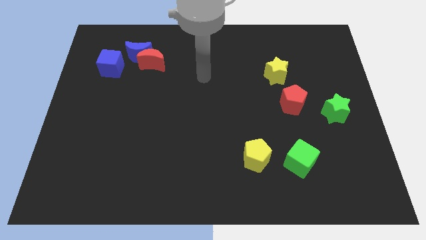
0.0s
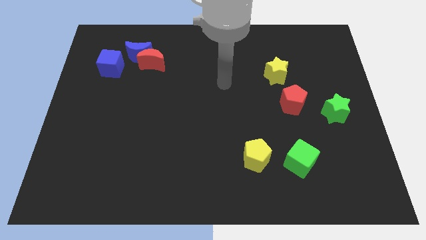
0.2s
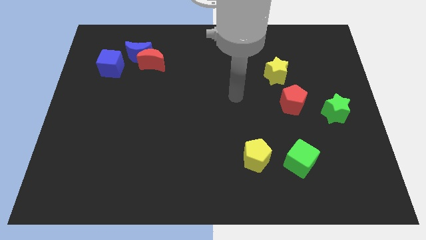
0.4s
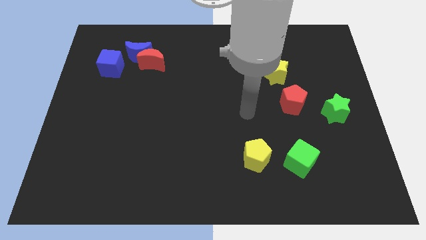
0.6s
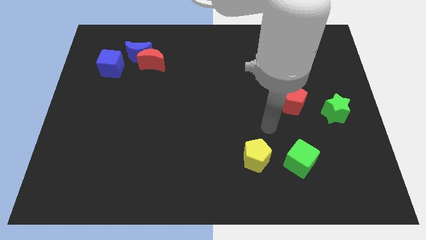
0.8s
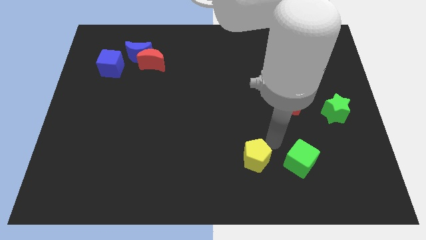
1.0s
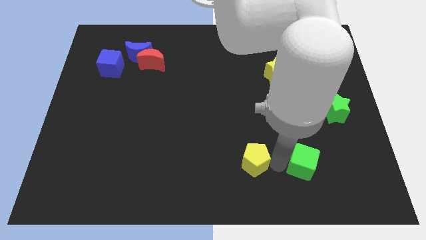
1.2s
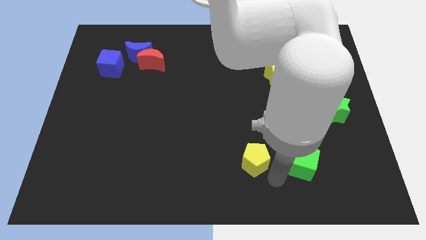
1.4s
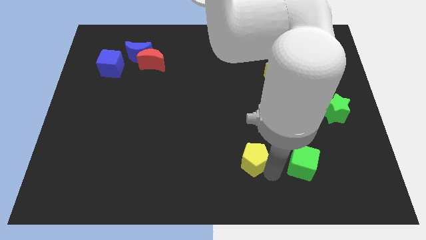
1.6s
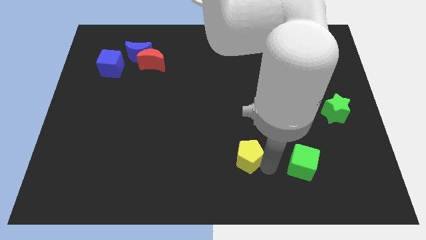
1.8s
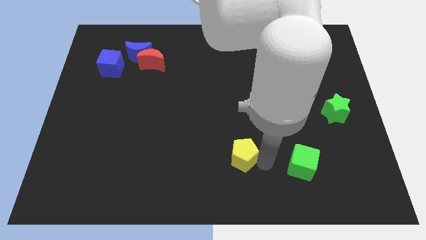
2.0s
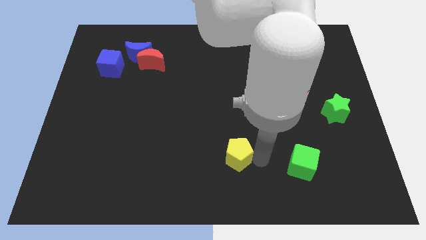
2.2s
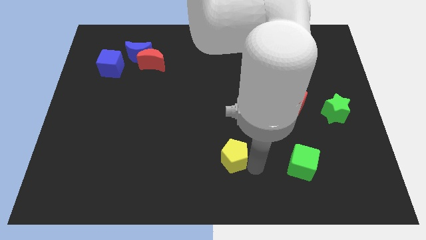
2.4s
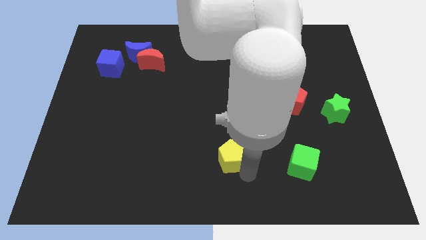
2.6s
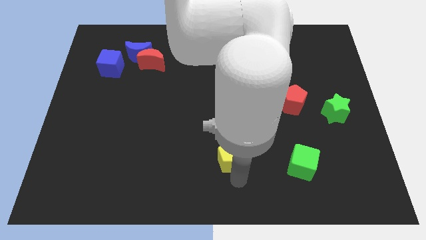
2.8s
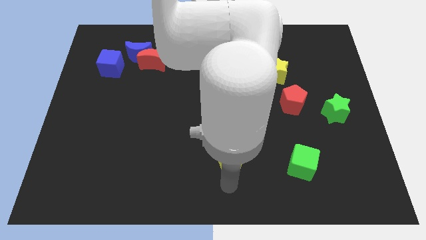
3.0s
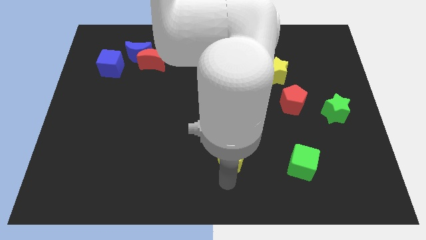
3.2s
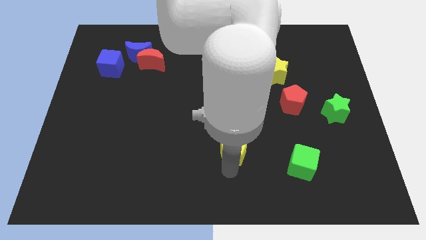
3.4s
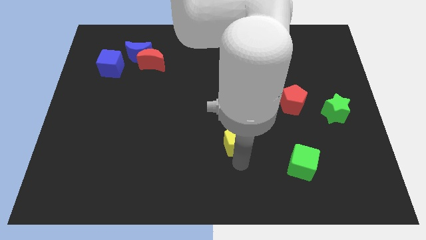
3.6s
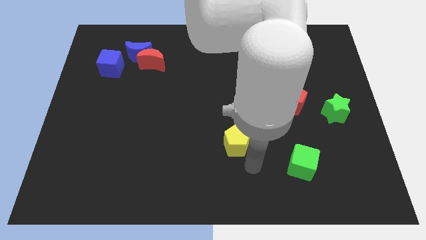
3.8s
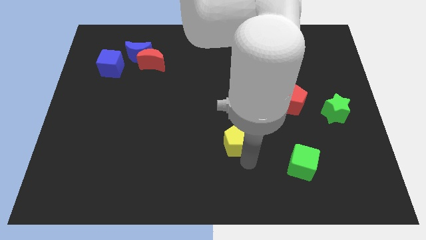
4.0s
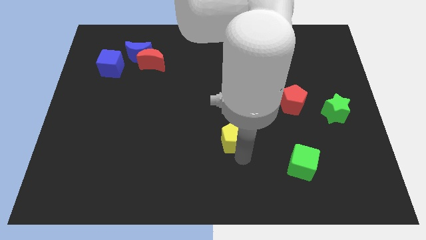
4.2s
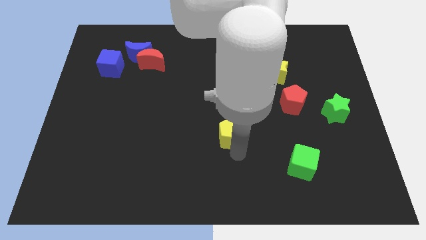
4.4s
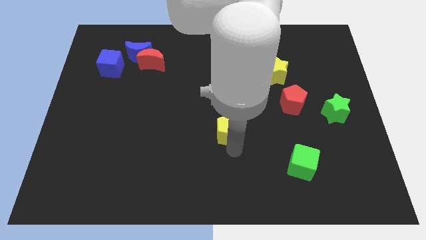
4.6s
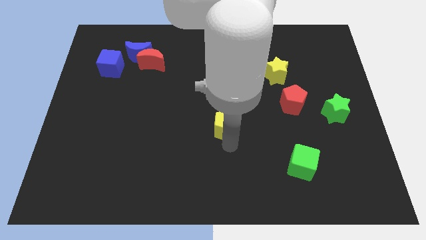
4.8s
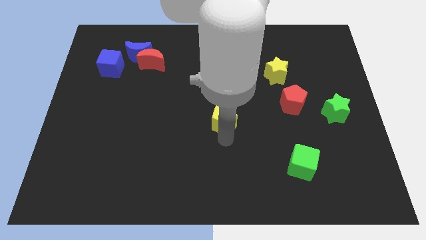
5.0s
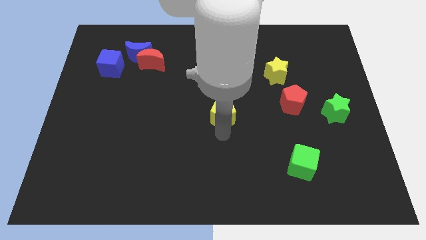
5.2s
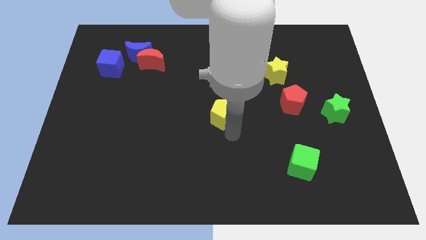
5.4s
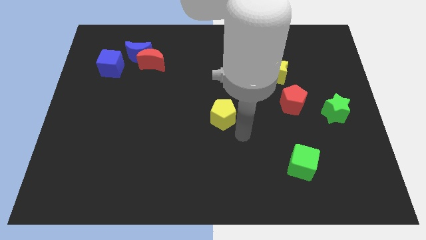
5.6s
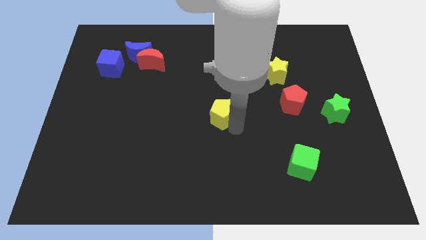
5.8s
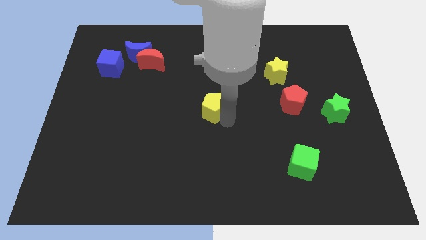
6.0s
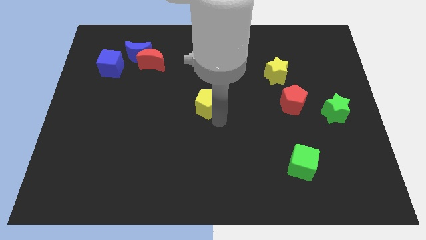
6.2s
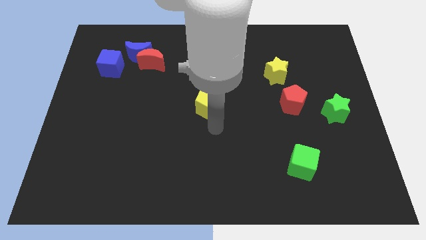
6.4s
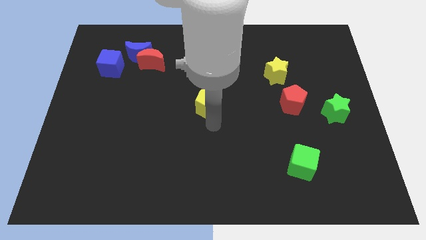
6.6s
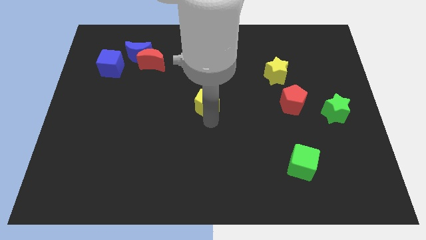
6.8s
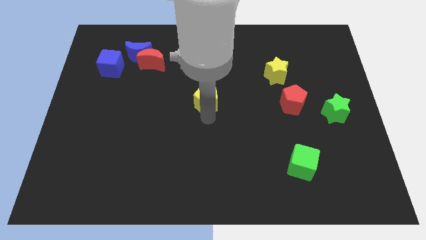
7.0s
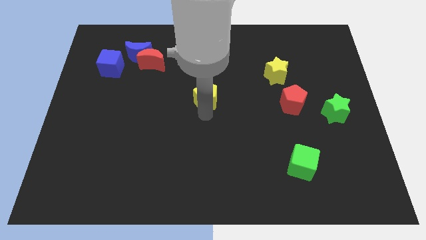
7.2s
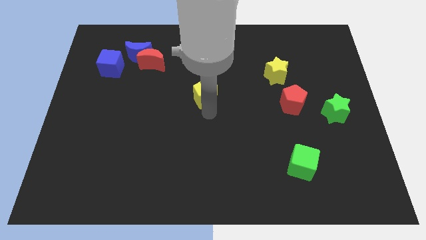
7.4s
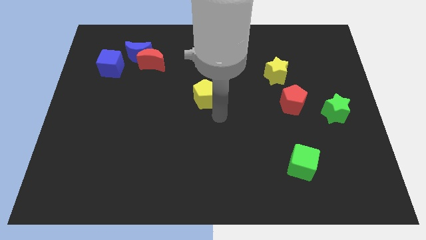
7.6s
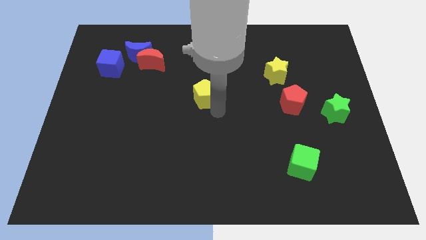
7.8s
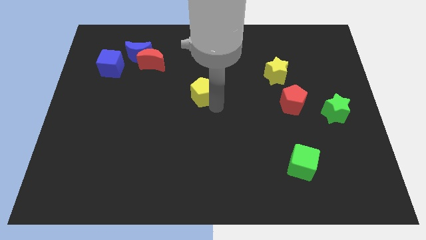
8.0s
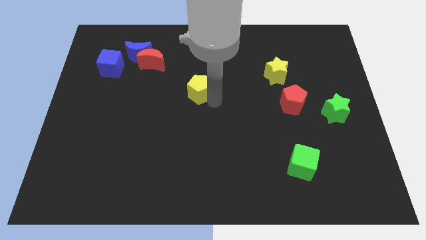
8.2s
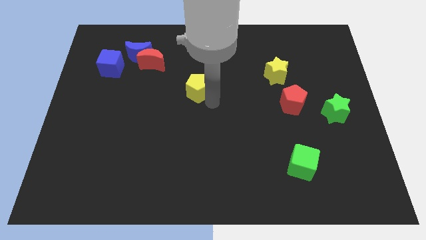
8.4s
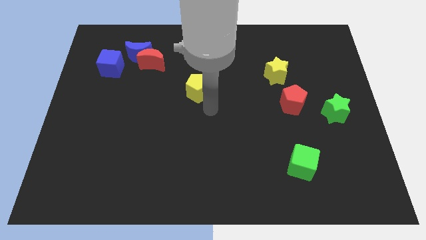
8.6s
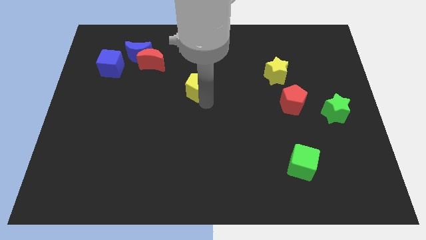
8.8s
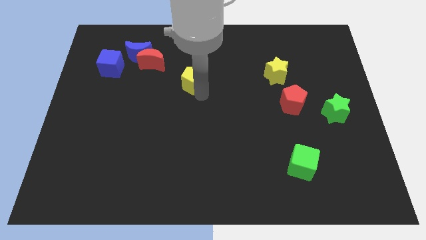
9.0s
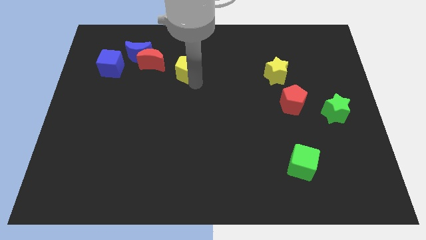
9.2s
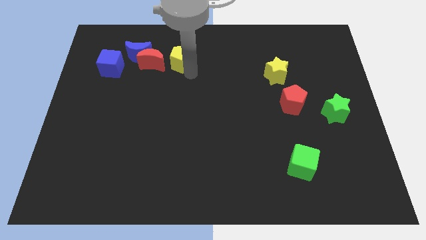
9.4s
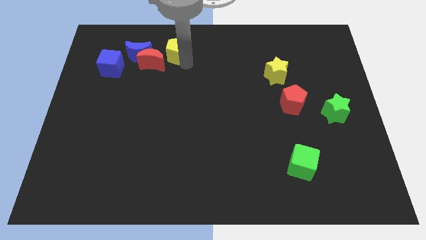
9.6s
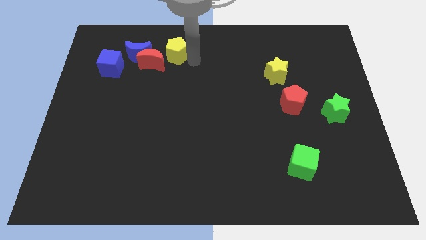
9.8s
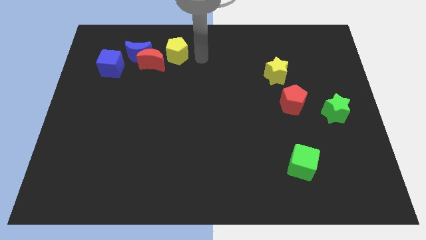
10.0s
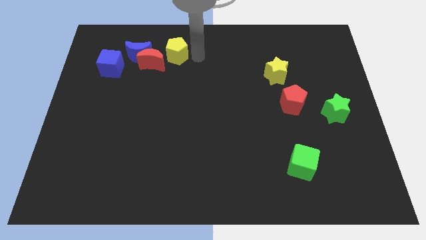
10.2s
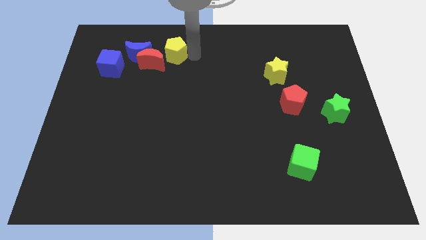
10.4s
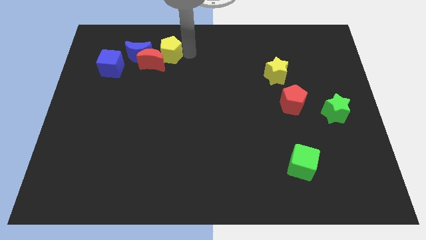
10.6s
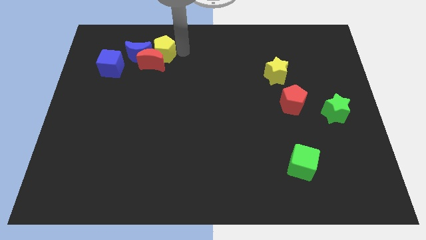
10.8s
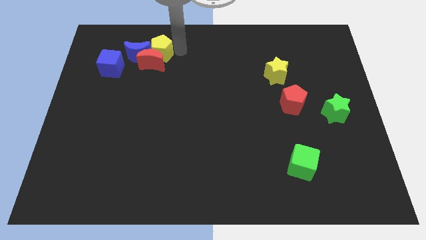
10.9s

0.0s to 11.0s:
move the yellow pentagon to the blue moon

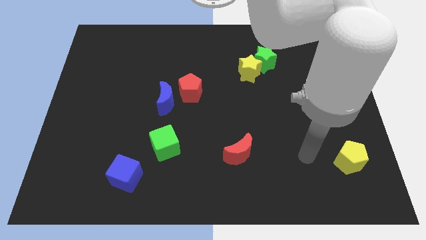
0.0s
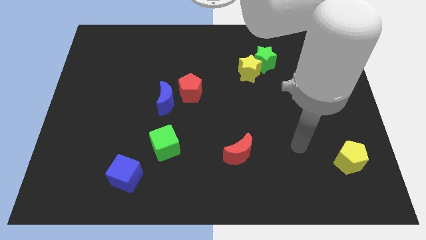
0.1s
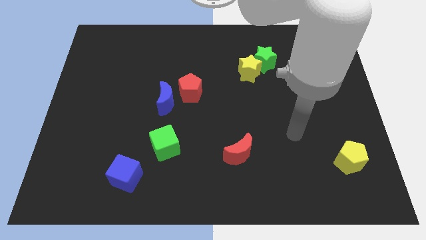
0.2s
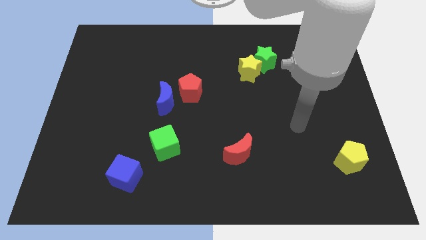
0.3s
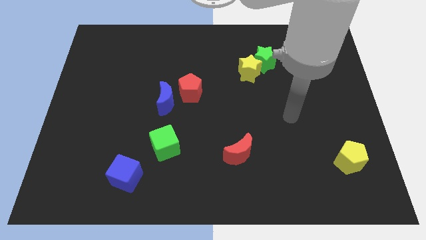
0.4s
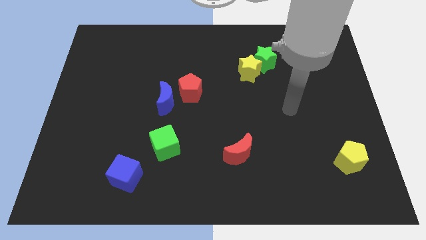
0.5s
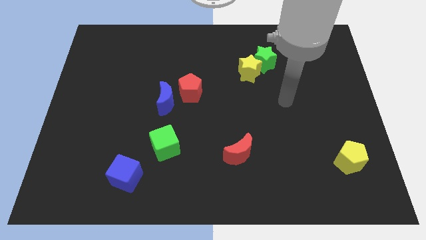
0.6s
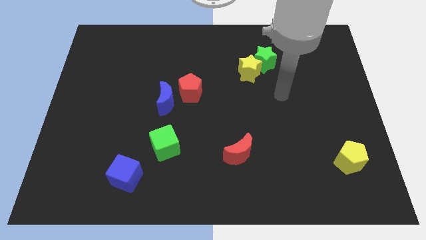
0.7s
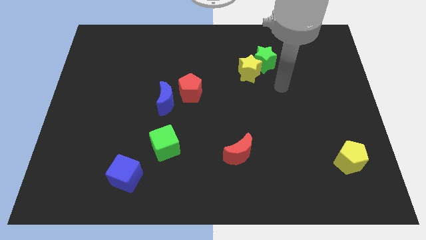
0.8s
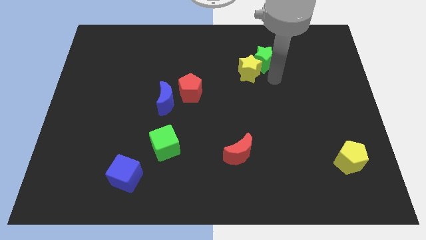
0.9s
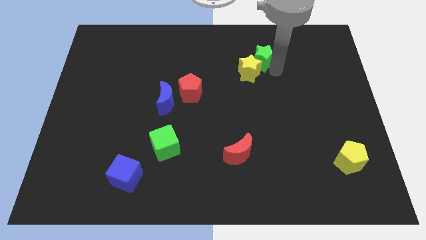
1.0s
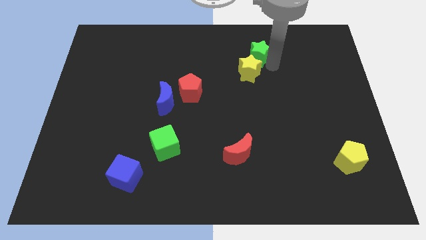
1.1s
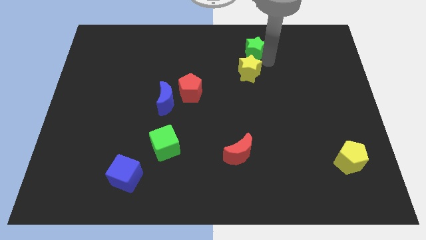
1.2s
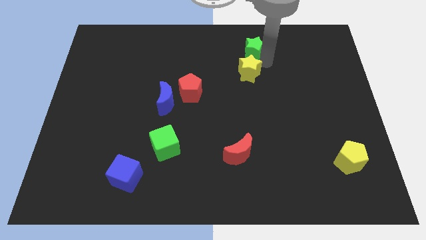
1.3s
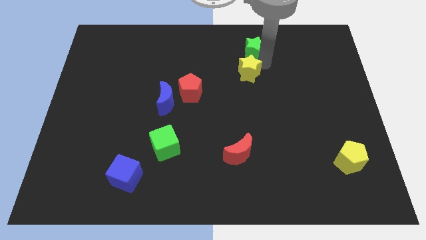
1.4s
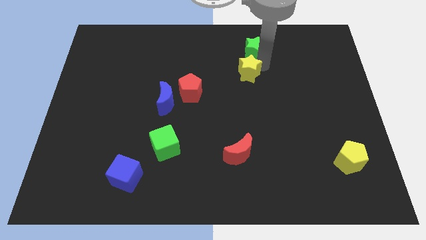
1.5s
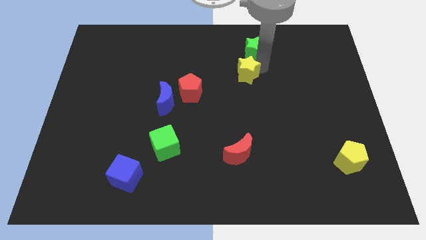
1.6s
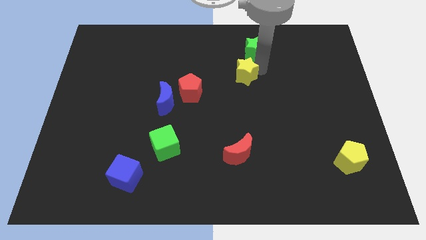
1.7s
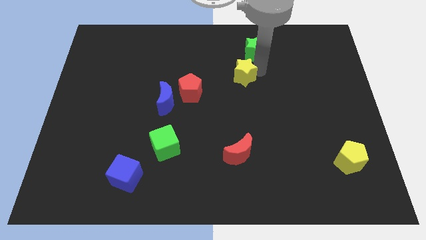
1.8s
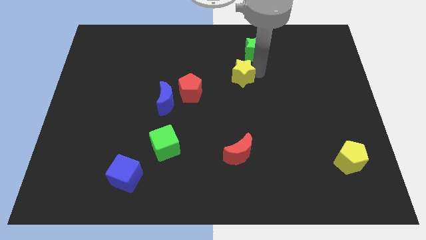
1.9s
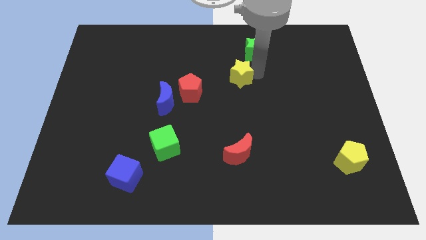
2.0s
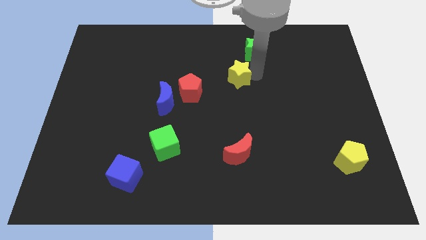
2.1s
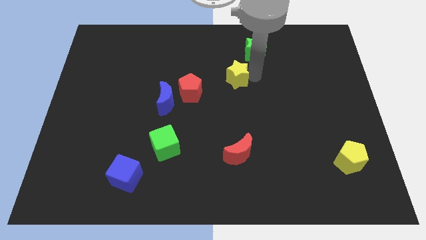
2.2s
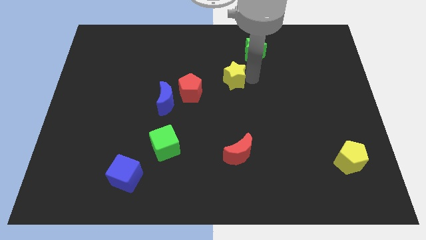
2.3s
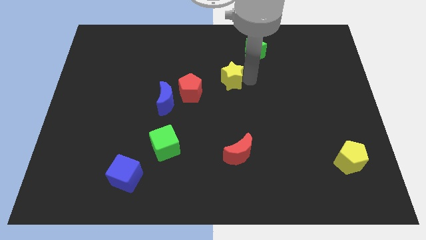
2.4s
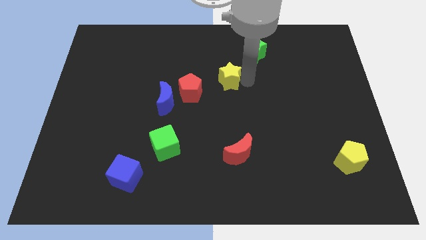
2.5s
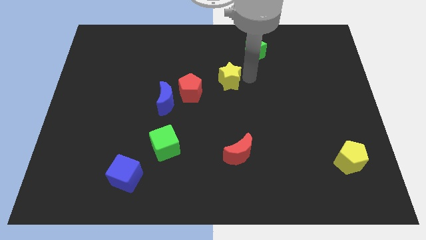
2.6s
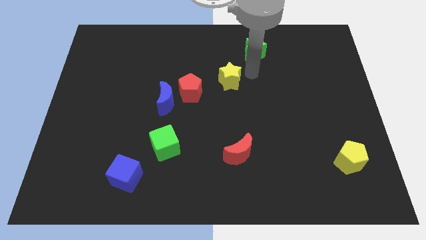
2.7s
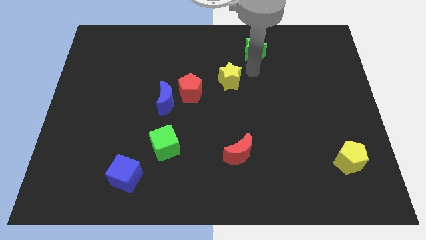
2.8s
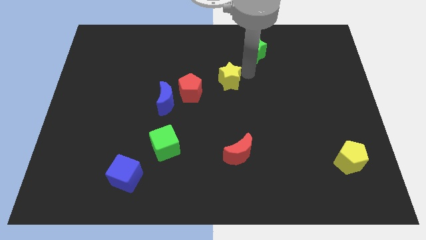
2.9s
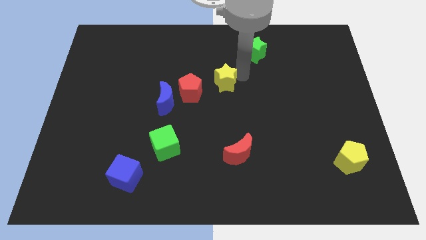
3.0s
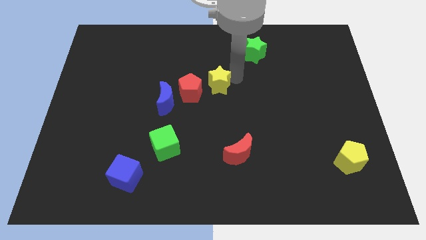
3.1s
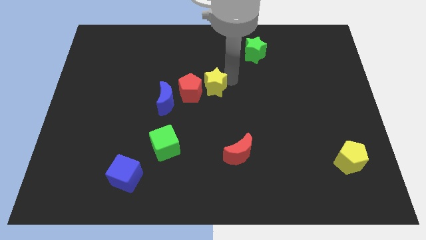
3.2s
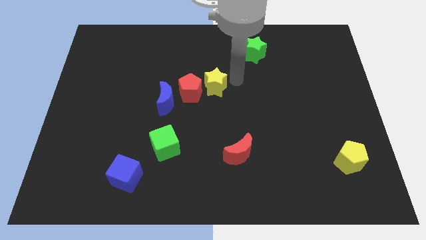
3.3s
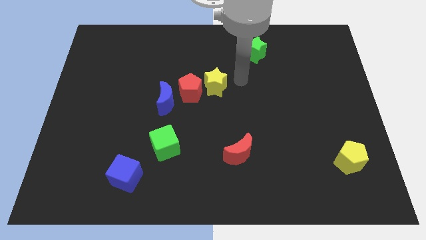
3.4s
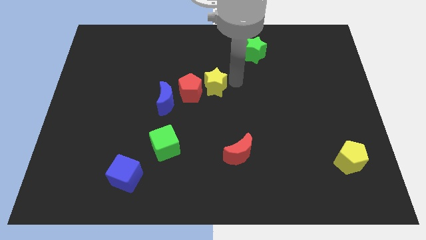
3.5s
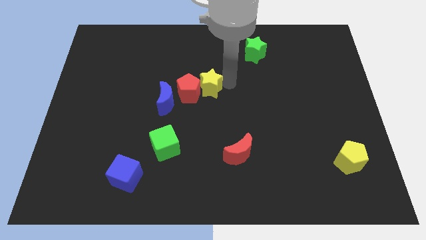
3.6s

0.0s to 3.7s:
slide the yellow star to the red pentagon
